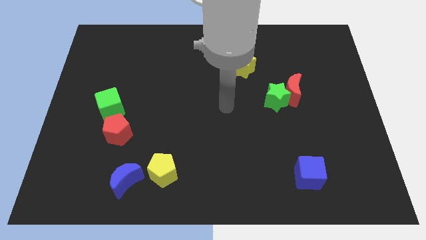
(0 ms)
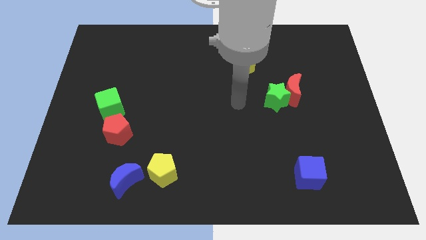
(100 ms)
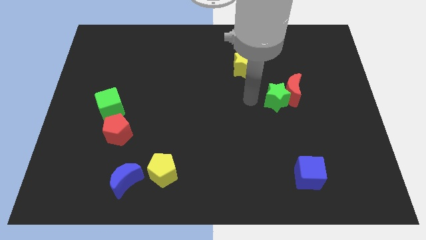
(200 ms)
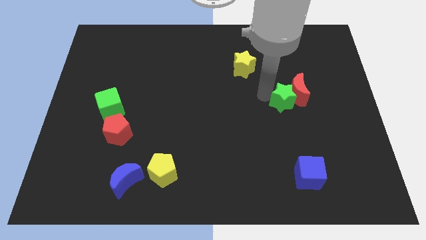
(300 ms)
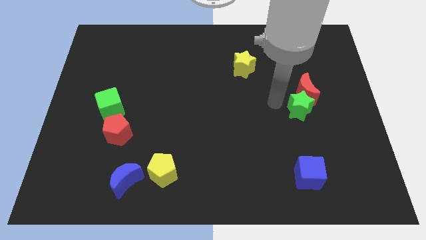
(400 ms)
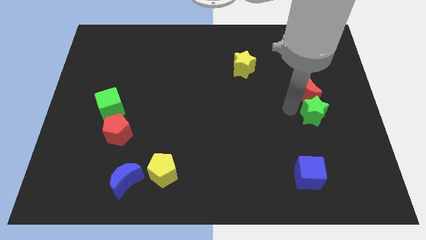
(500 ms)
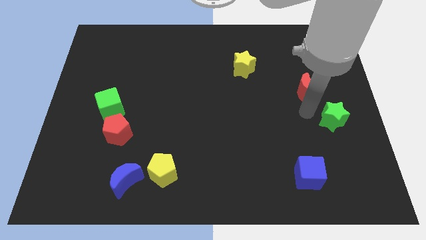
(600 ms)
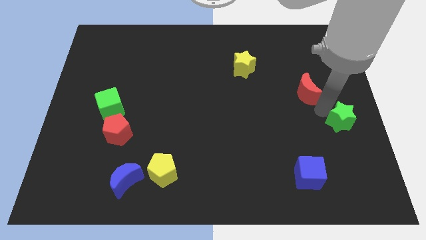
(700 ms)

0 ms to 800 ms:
pull the red moon apart from the green star

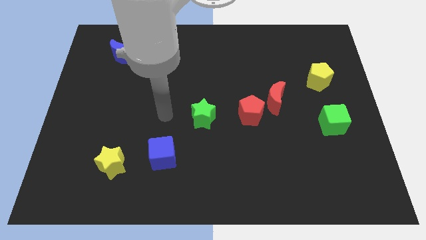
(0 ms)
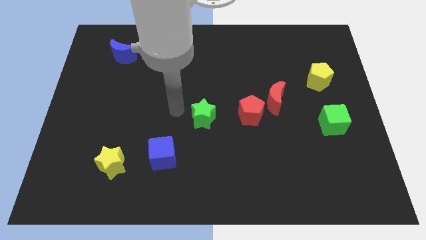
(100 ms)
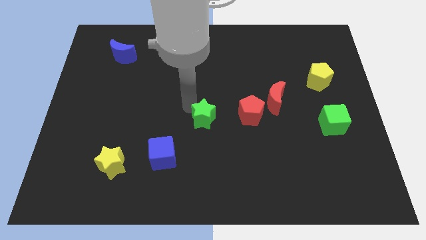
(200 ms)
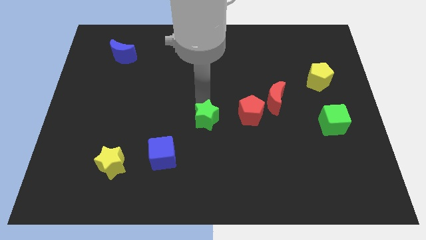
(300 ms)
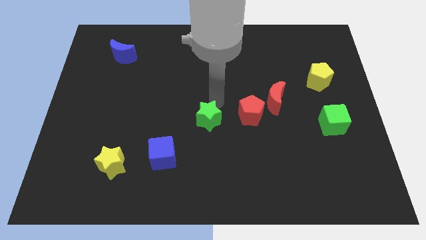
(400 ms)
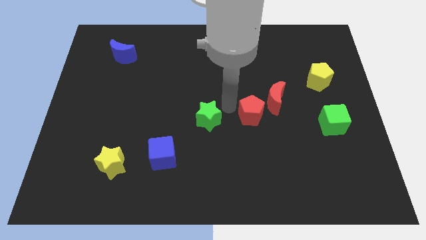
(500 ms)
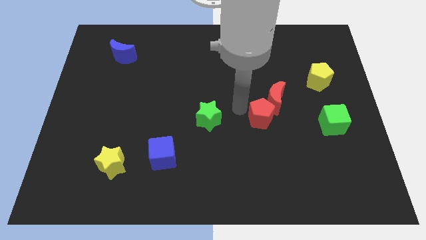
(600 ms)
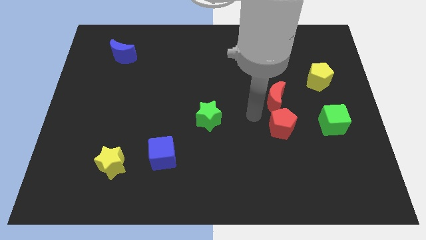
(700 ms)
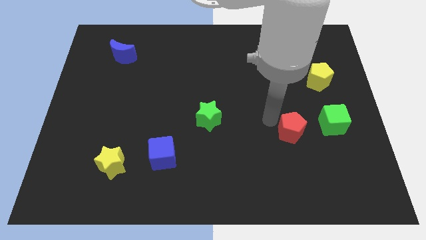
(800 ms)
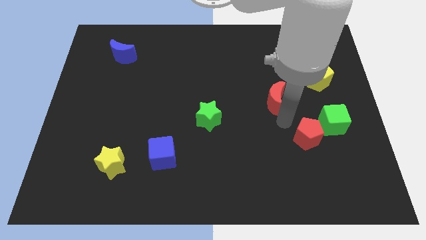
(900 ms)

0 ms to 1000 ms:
move the red moon away from the red pentagon

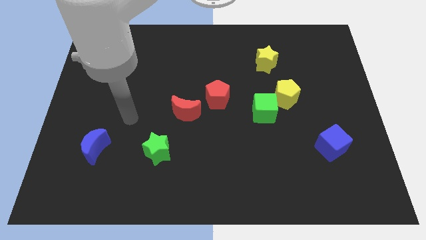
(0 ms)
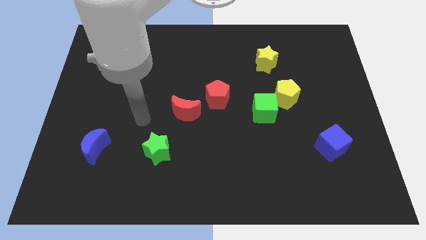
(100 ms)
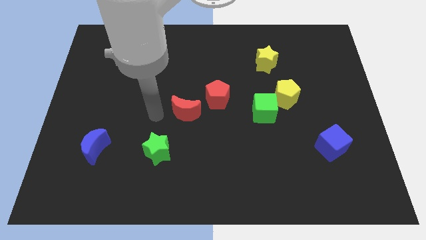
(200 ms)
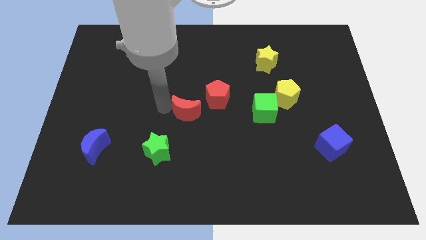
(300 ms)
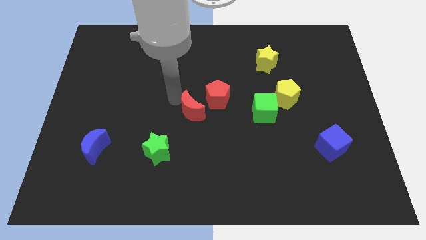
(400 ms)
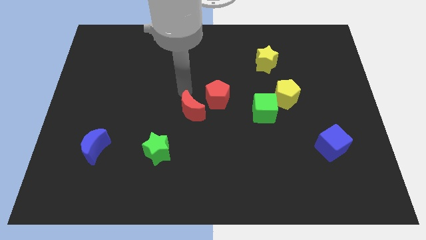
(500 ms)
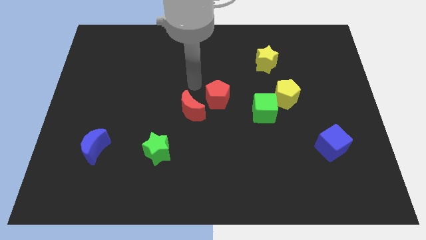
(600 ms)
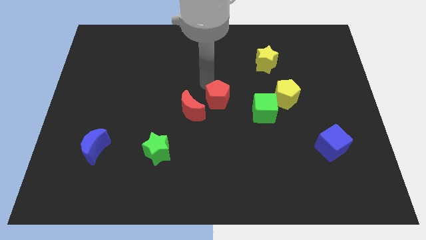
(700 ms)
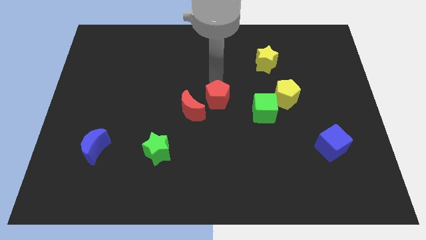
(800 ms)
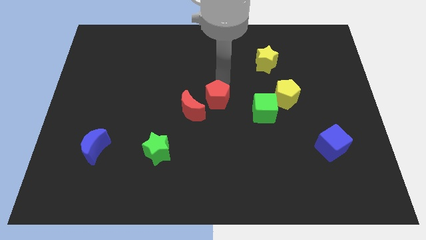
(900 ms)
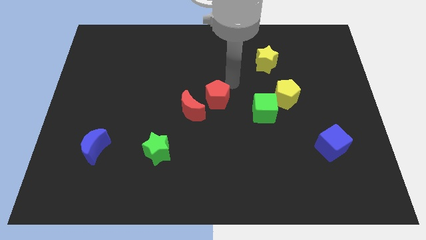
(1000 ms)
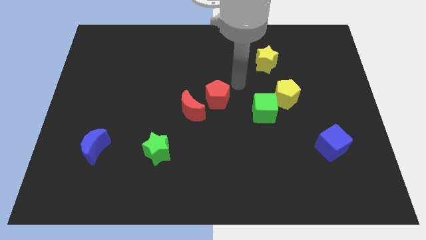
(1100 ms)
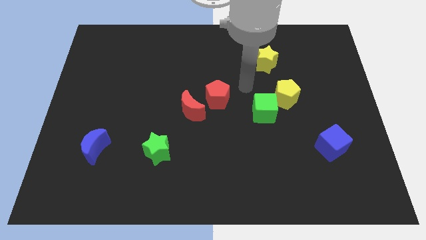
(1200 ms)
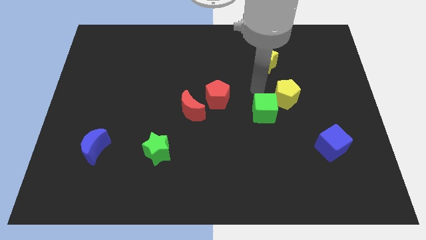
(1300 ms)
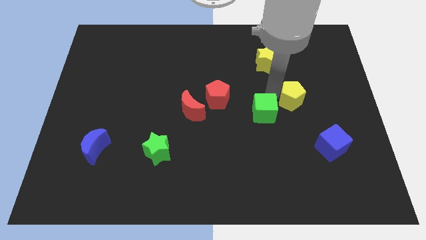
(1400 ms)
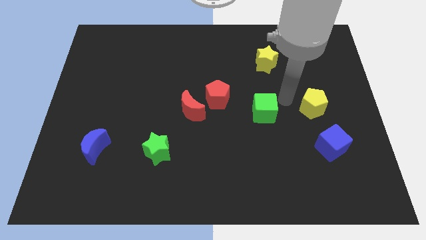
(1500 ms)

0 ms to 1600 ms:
move the green cube away from the yellow pentagon

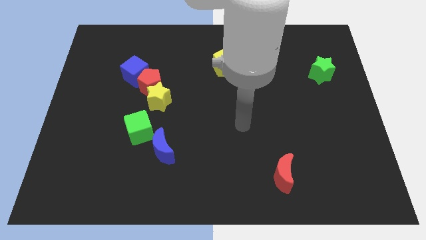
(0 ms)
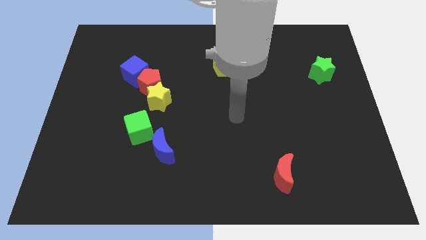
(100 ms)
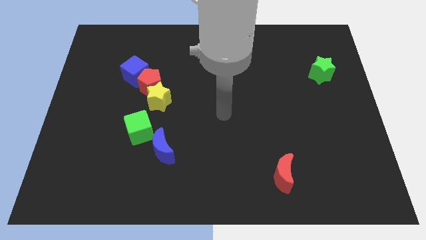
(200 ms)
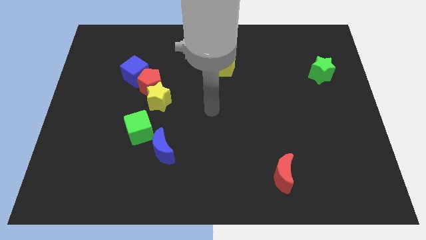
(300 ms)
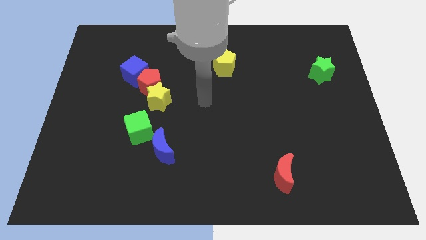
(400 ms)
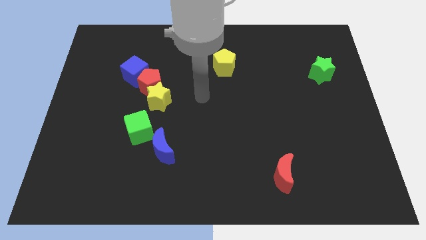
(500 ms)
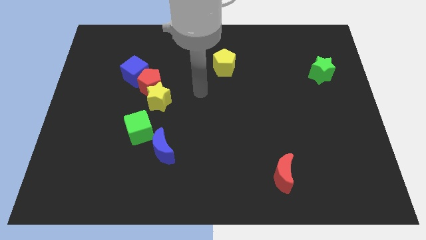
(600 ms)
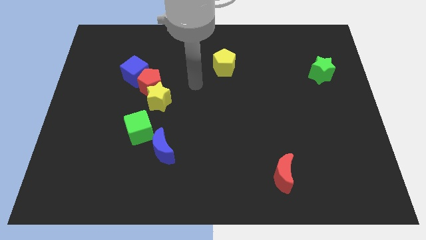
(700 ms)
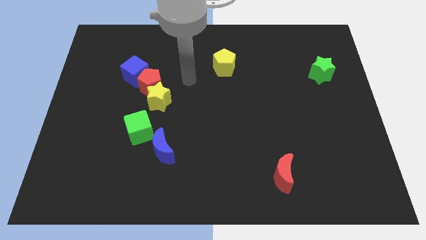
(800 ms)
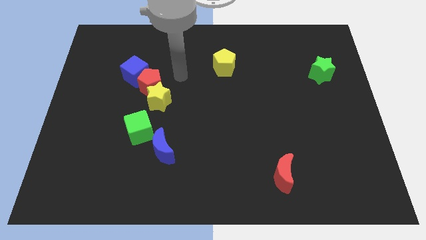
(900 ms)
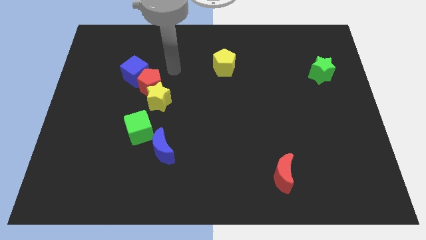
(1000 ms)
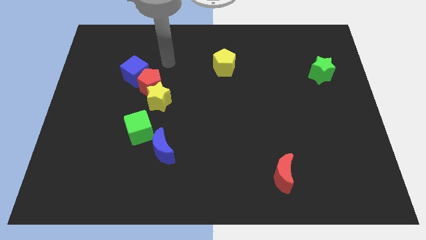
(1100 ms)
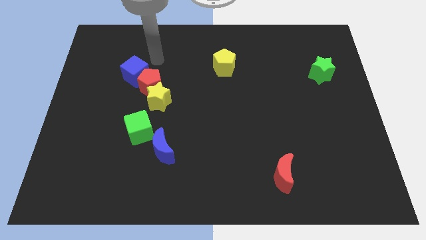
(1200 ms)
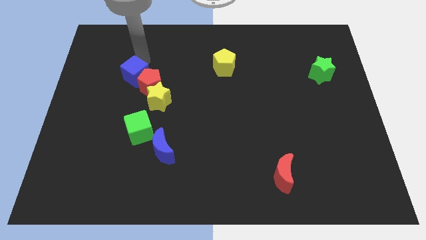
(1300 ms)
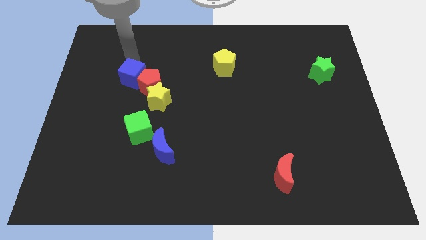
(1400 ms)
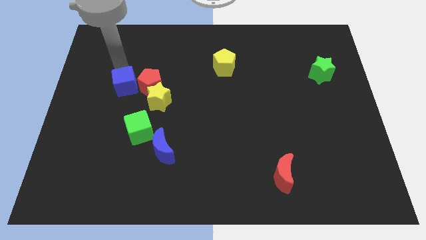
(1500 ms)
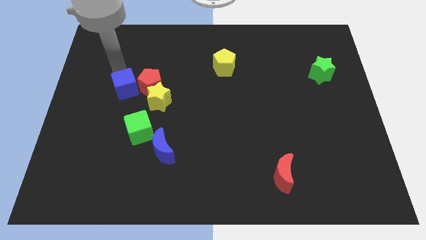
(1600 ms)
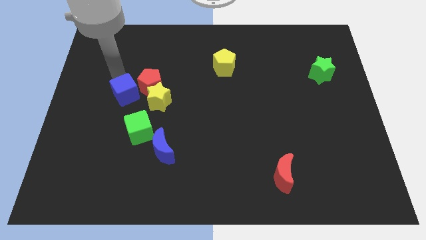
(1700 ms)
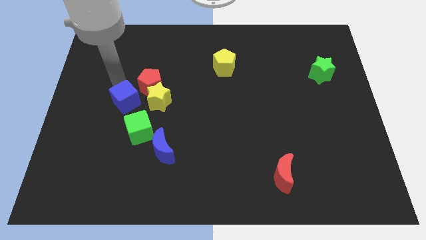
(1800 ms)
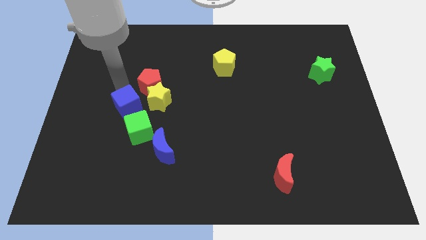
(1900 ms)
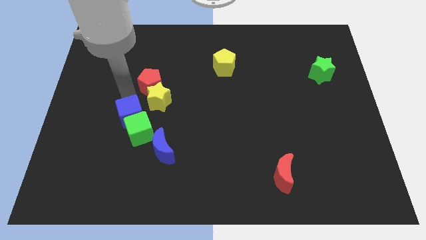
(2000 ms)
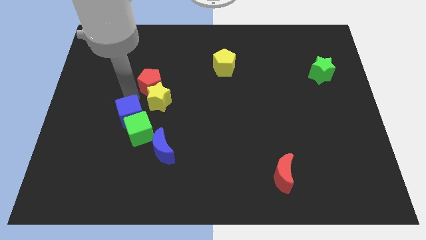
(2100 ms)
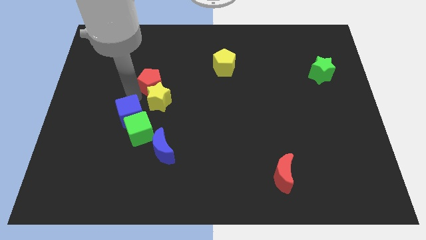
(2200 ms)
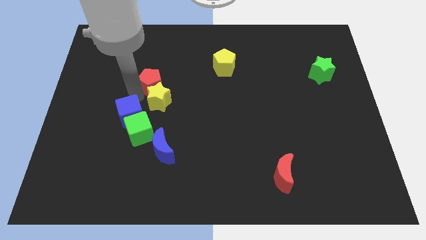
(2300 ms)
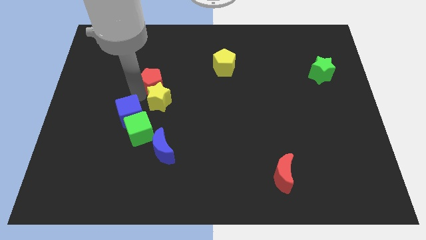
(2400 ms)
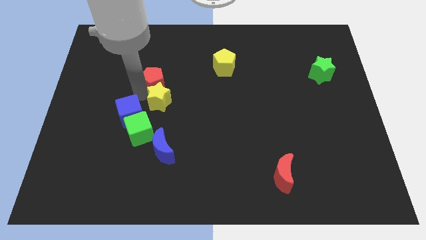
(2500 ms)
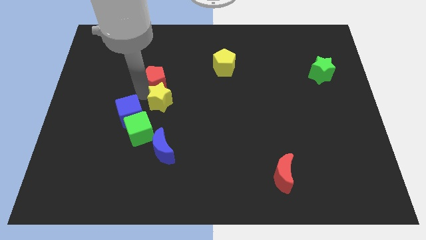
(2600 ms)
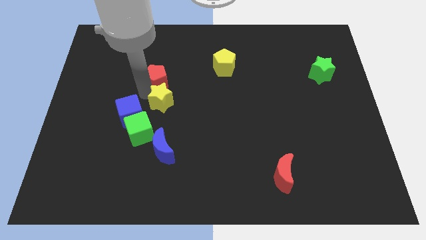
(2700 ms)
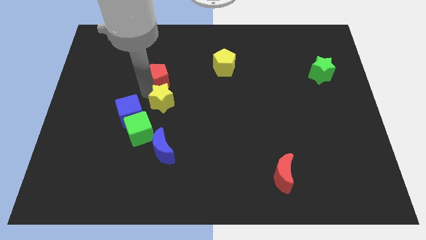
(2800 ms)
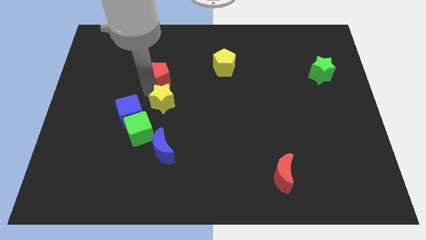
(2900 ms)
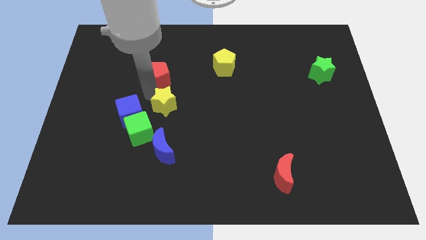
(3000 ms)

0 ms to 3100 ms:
move the red pentagon away from the yellow star and blue cube

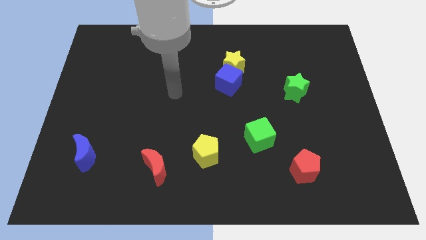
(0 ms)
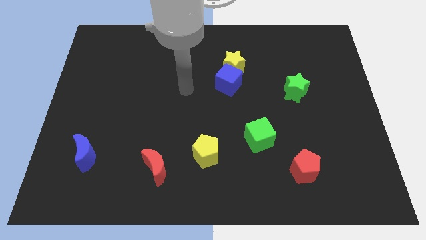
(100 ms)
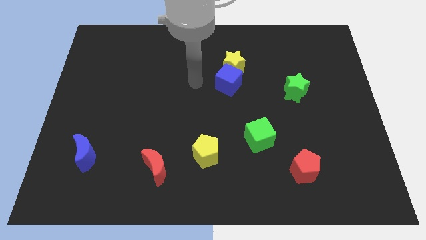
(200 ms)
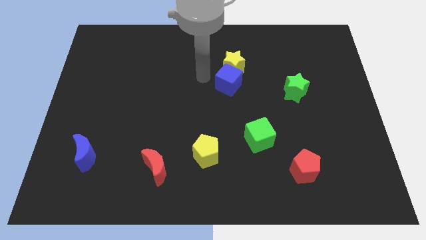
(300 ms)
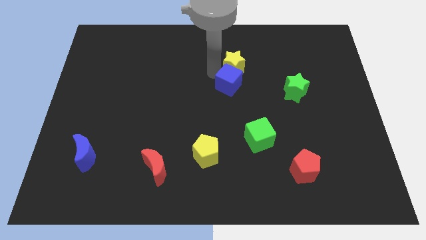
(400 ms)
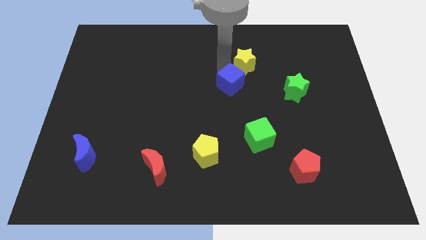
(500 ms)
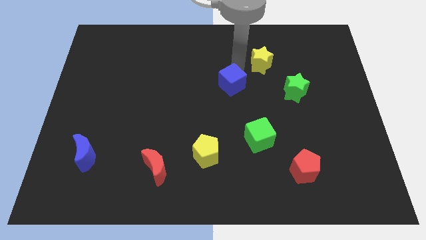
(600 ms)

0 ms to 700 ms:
pull the blue cube apart from the yellow star

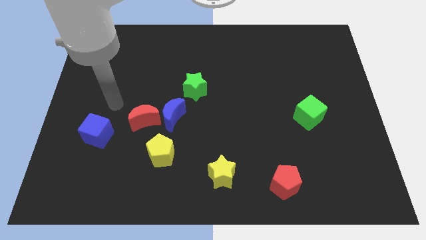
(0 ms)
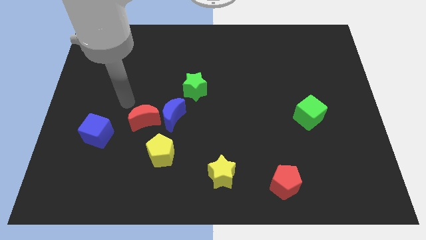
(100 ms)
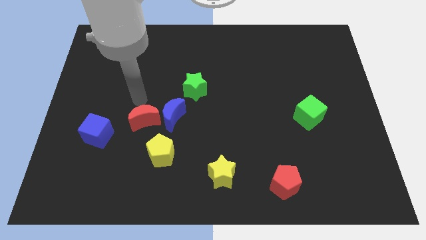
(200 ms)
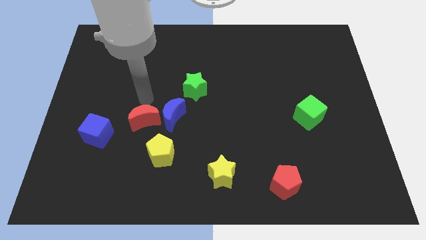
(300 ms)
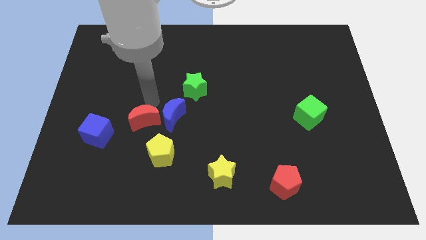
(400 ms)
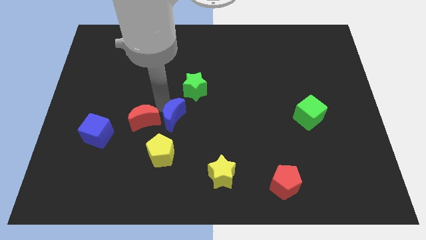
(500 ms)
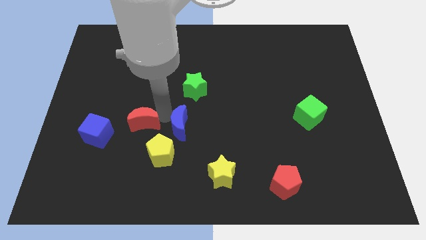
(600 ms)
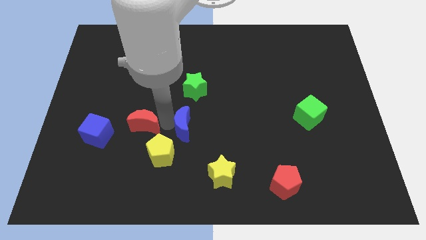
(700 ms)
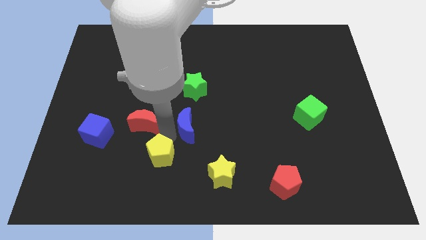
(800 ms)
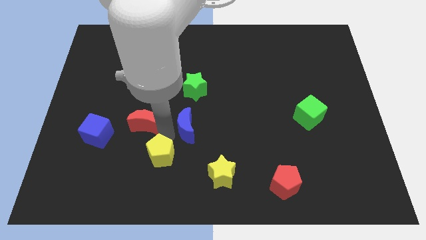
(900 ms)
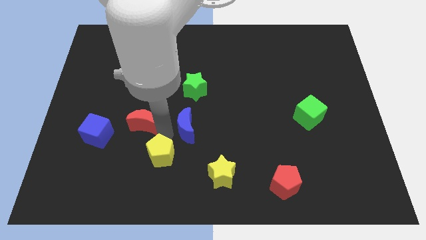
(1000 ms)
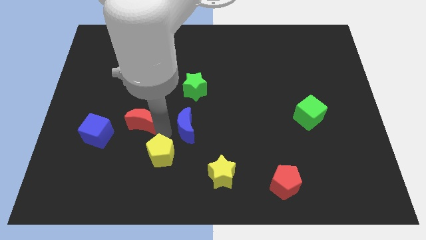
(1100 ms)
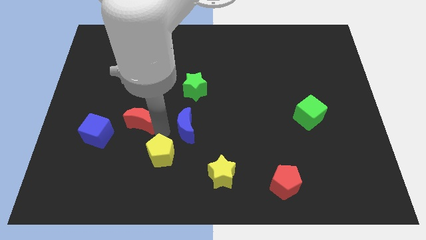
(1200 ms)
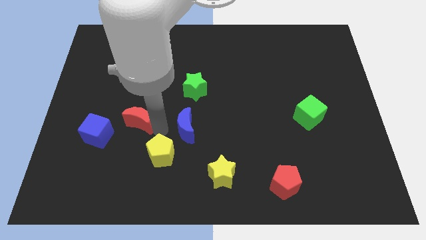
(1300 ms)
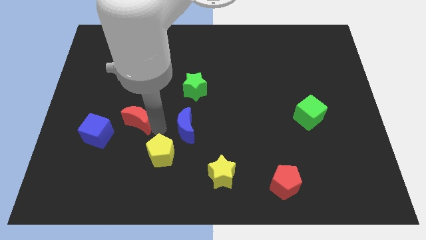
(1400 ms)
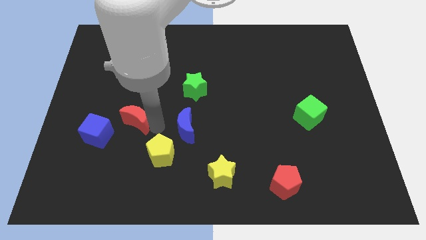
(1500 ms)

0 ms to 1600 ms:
separate the red moon from the blue moon and yellow pentagon

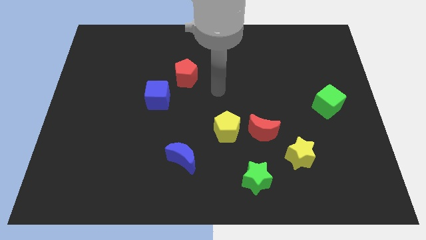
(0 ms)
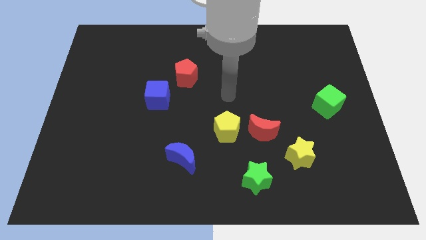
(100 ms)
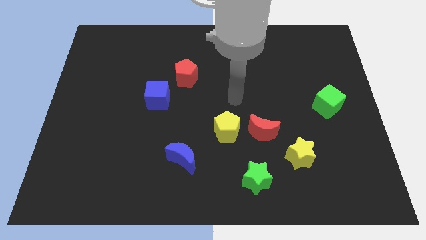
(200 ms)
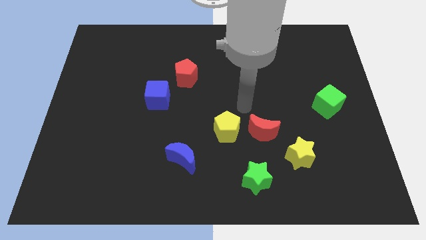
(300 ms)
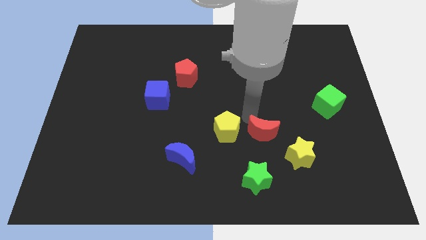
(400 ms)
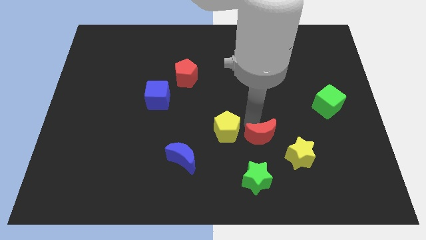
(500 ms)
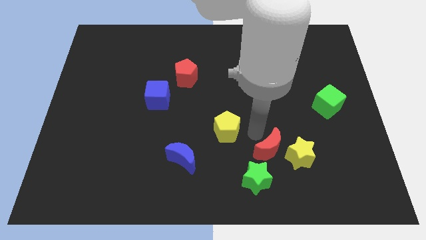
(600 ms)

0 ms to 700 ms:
pull the yellow pentagon apart from the red moon
